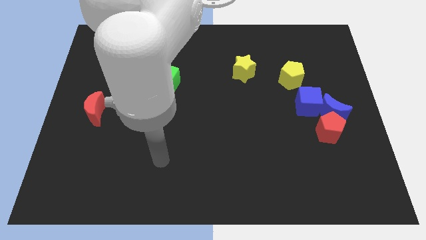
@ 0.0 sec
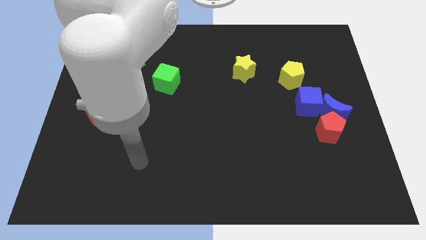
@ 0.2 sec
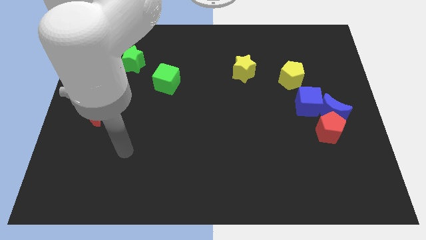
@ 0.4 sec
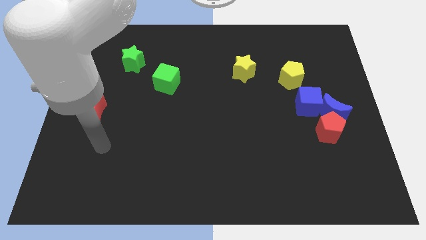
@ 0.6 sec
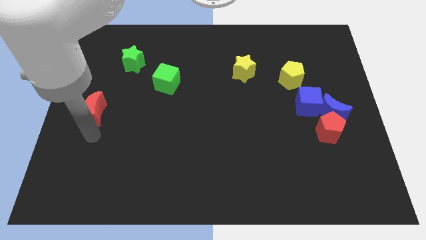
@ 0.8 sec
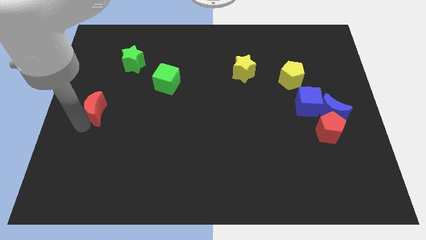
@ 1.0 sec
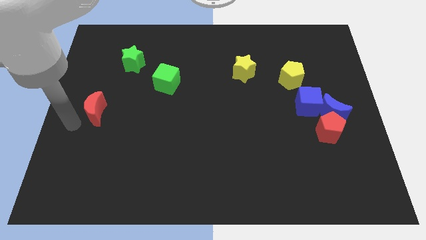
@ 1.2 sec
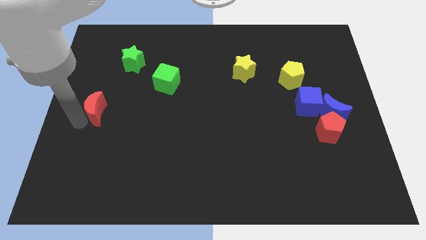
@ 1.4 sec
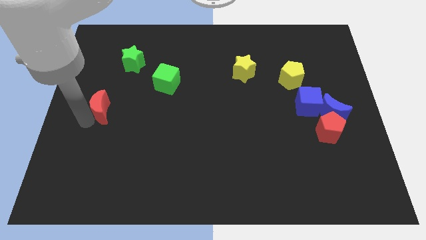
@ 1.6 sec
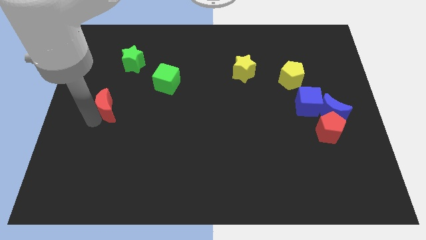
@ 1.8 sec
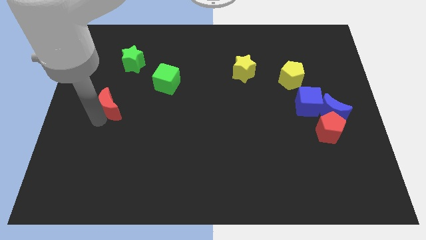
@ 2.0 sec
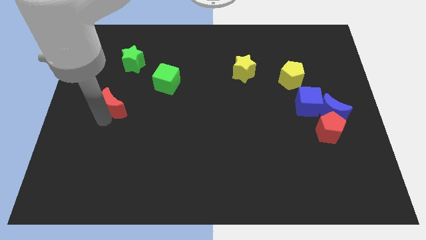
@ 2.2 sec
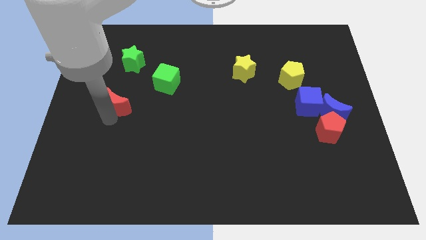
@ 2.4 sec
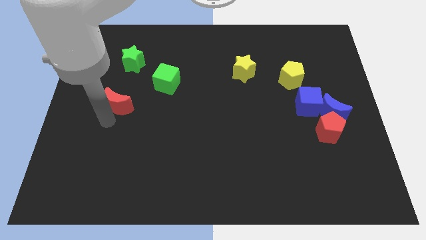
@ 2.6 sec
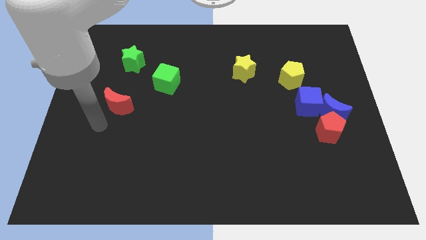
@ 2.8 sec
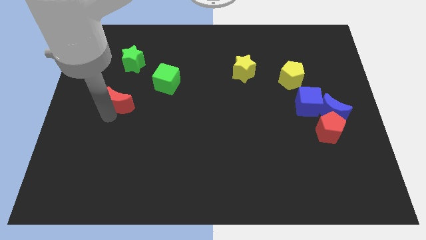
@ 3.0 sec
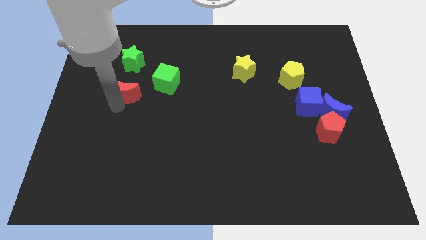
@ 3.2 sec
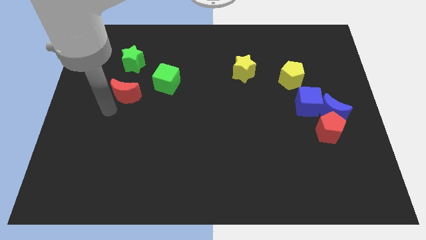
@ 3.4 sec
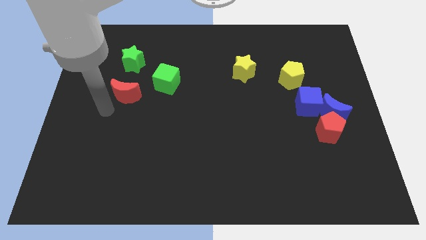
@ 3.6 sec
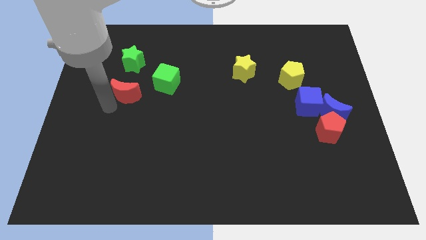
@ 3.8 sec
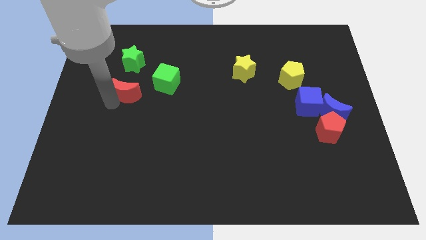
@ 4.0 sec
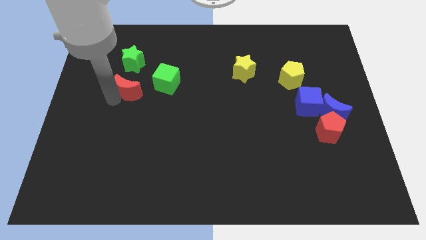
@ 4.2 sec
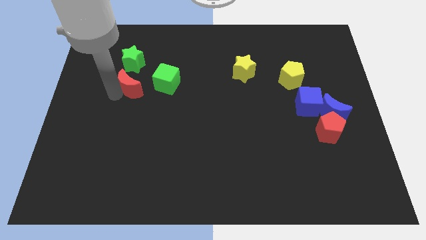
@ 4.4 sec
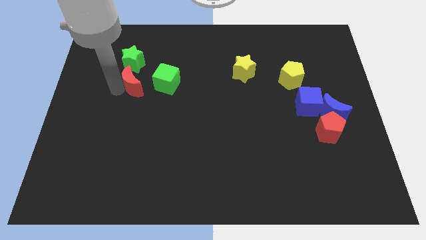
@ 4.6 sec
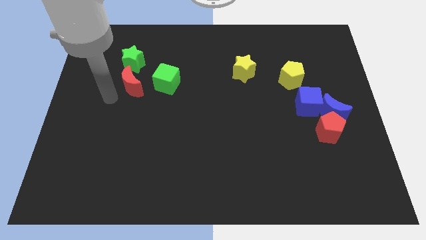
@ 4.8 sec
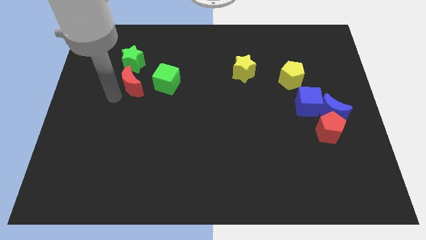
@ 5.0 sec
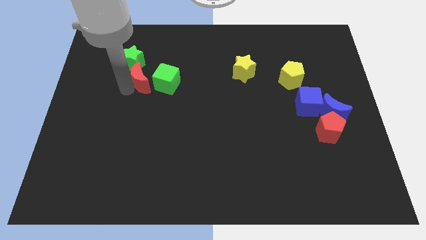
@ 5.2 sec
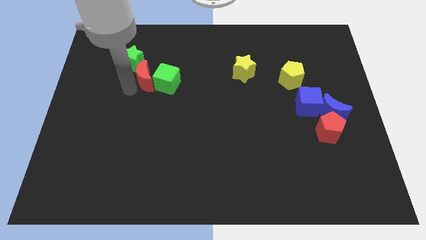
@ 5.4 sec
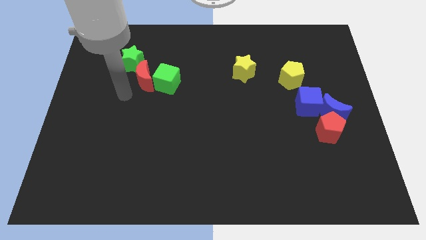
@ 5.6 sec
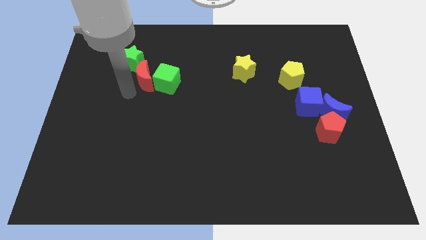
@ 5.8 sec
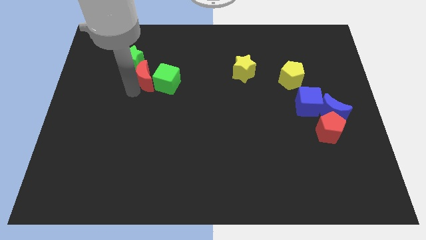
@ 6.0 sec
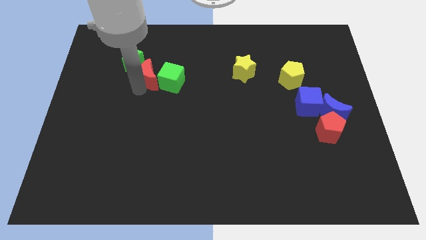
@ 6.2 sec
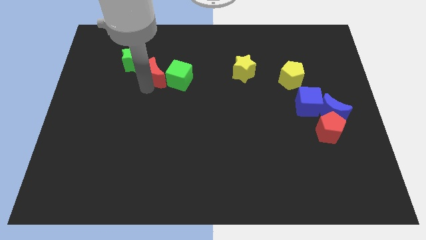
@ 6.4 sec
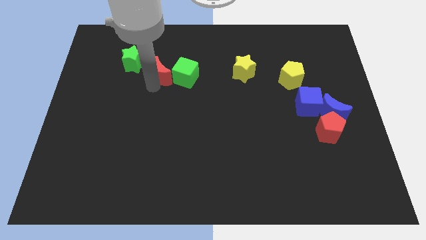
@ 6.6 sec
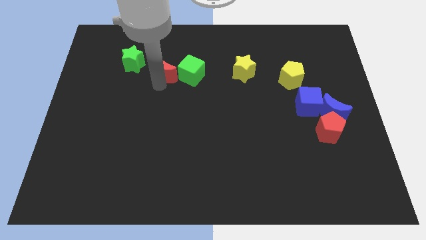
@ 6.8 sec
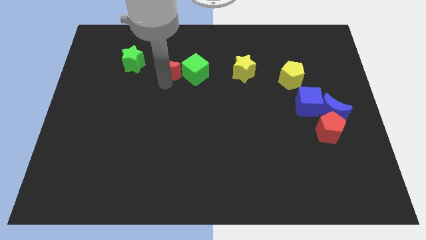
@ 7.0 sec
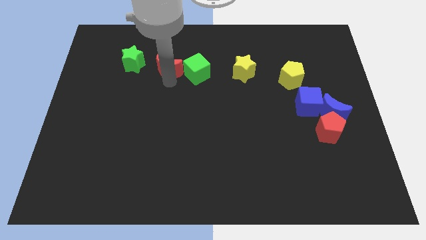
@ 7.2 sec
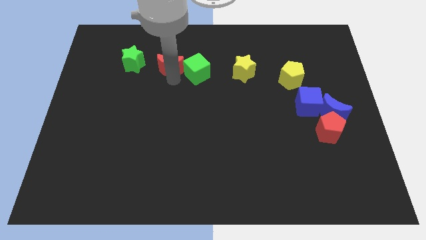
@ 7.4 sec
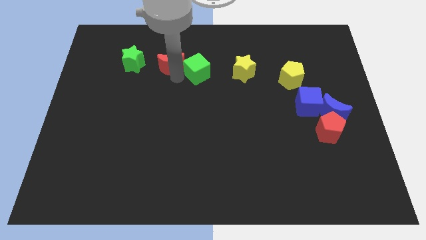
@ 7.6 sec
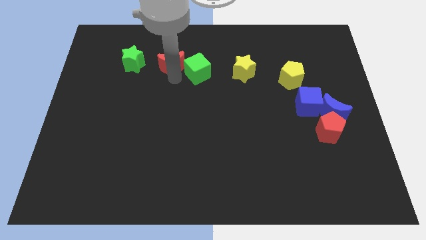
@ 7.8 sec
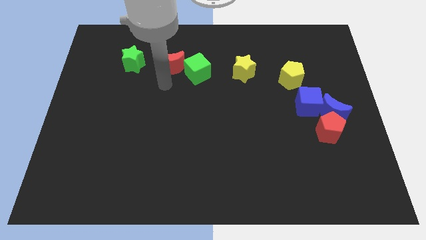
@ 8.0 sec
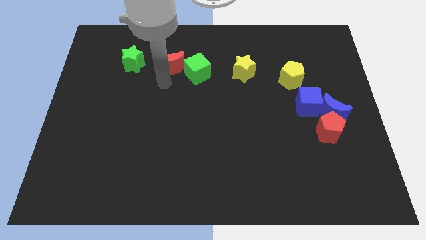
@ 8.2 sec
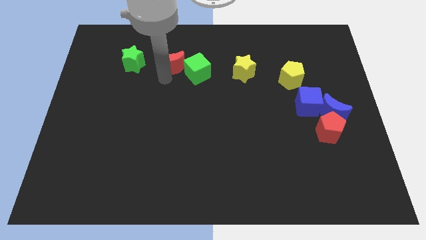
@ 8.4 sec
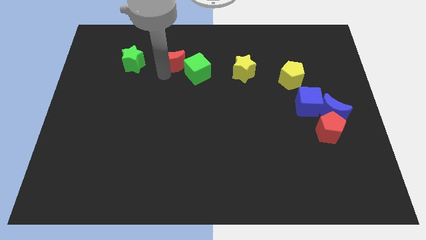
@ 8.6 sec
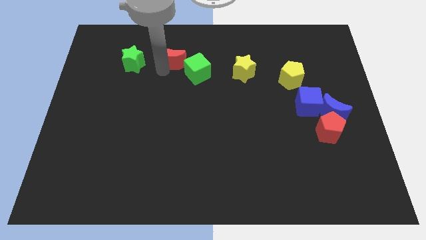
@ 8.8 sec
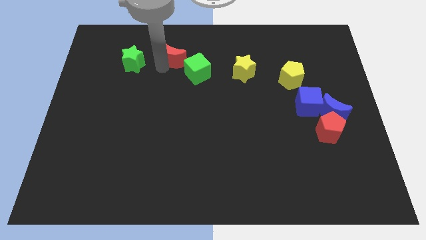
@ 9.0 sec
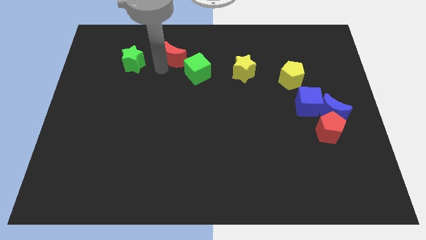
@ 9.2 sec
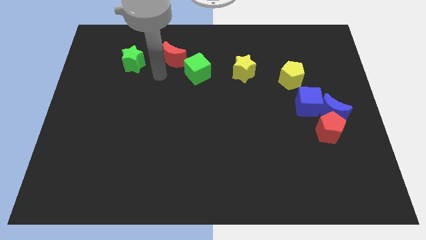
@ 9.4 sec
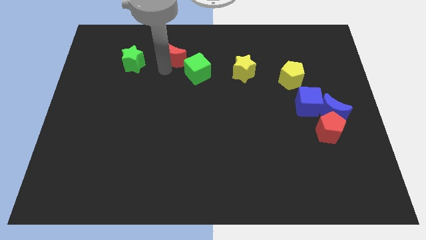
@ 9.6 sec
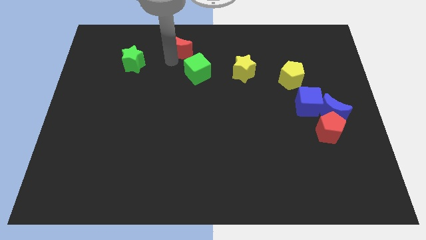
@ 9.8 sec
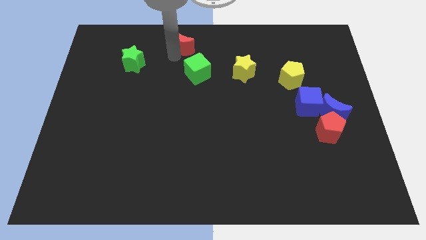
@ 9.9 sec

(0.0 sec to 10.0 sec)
move the red moon to the top side
